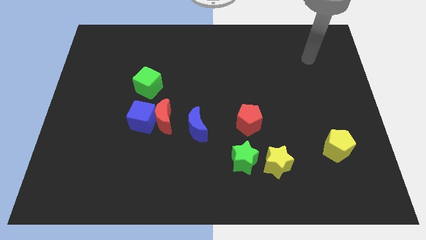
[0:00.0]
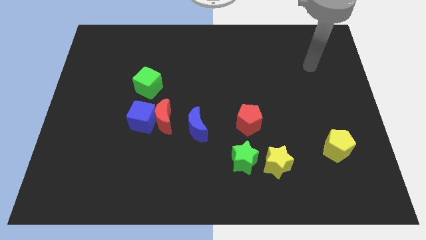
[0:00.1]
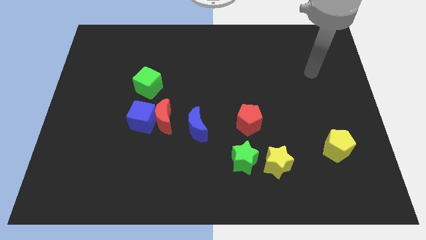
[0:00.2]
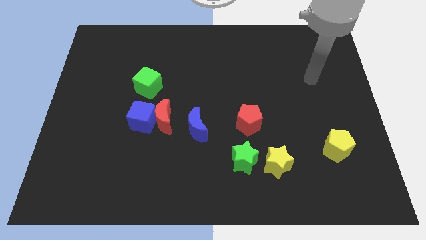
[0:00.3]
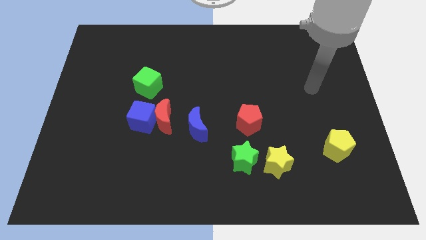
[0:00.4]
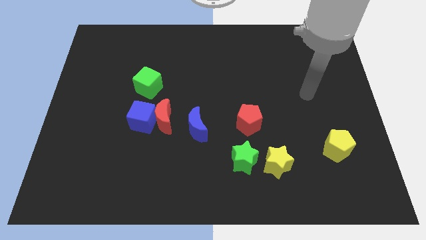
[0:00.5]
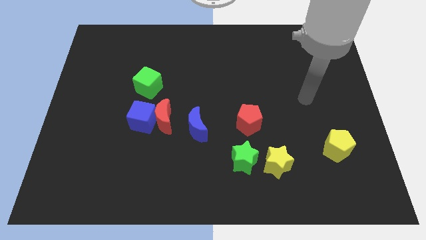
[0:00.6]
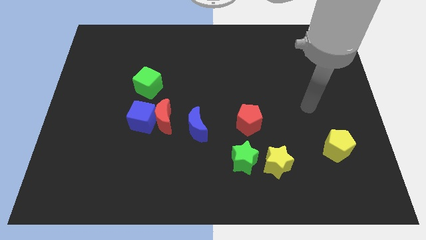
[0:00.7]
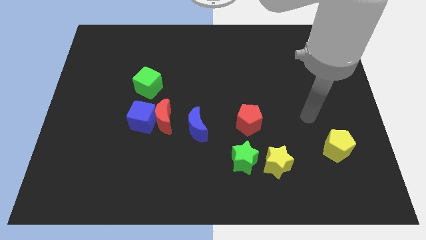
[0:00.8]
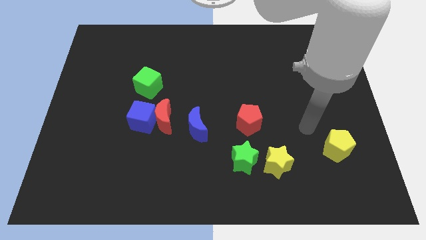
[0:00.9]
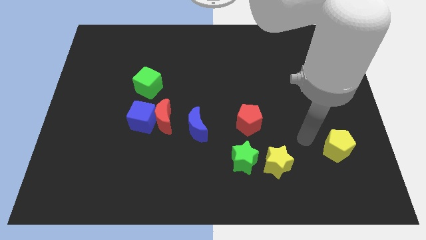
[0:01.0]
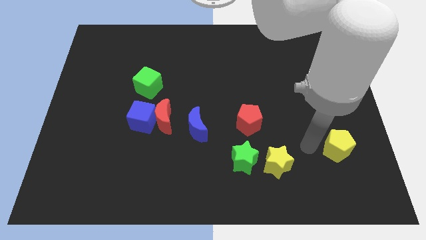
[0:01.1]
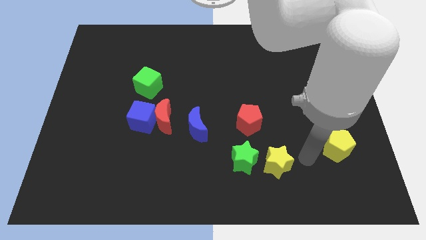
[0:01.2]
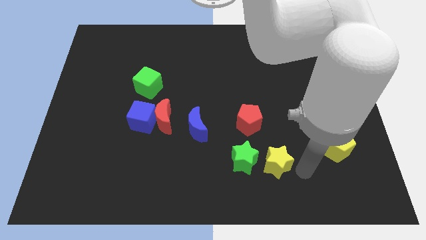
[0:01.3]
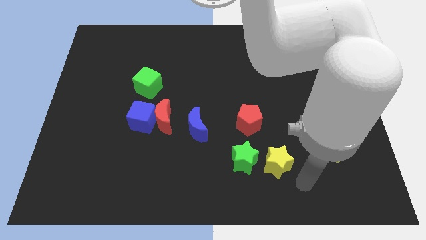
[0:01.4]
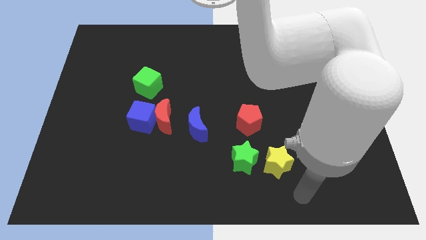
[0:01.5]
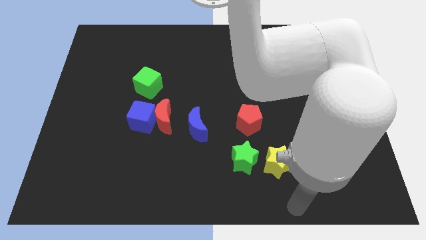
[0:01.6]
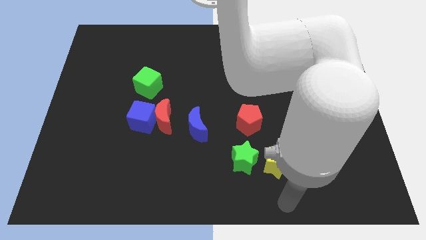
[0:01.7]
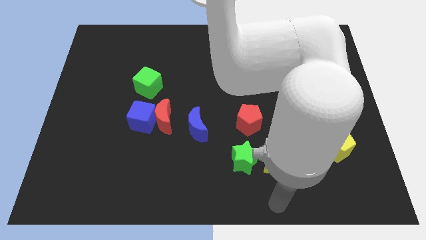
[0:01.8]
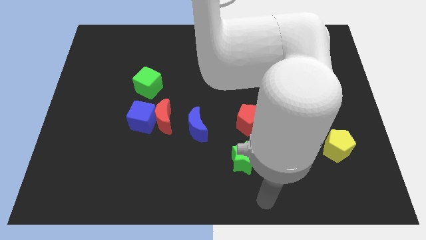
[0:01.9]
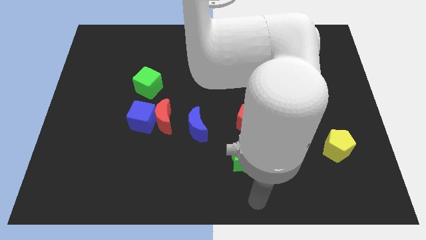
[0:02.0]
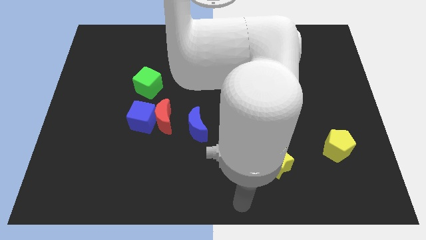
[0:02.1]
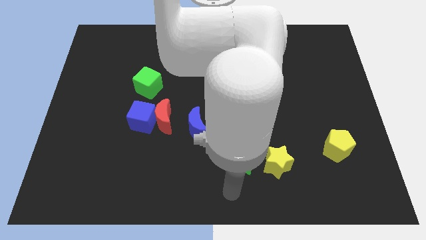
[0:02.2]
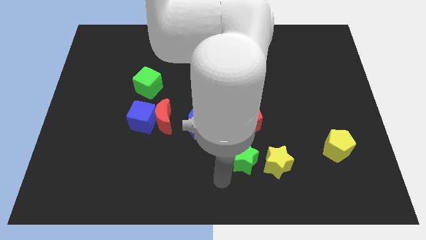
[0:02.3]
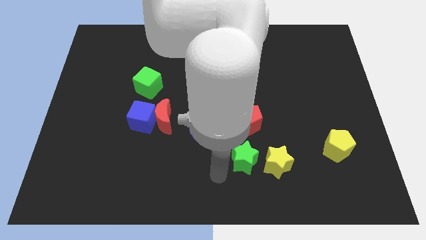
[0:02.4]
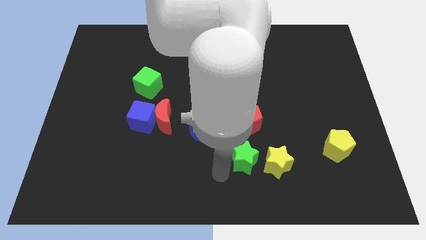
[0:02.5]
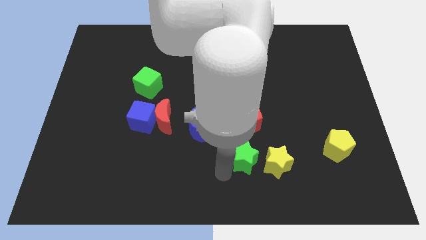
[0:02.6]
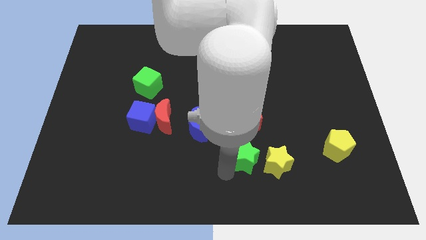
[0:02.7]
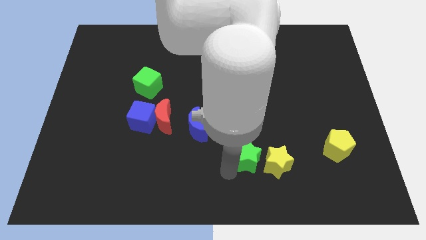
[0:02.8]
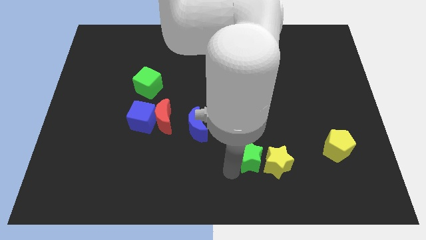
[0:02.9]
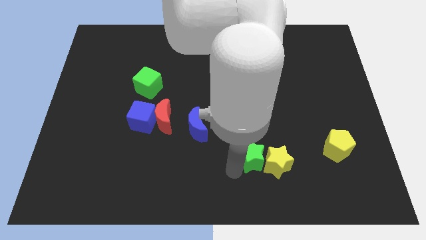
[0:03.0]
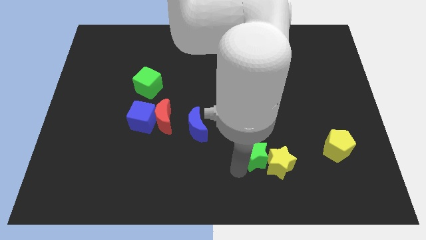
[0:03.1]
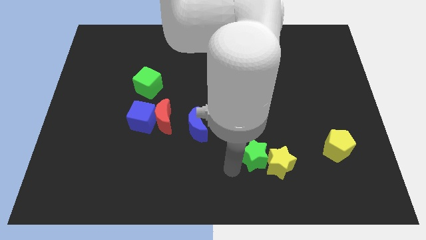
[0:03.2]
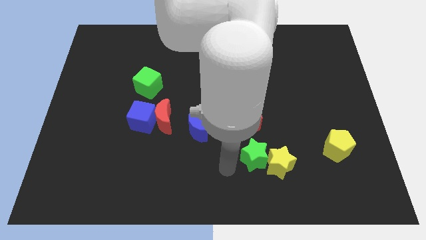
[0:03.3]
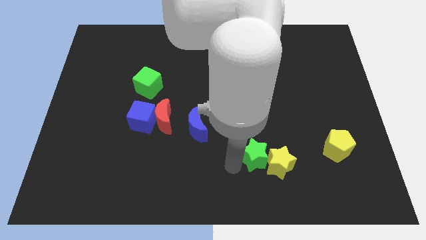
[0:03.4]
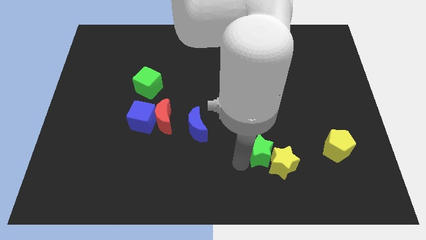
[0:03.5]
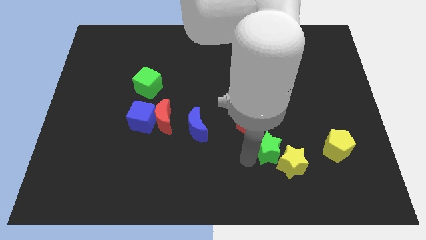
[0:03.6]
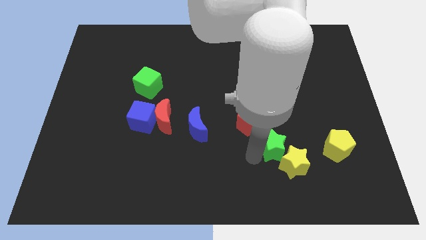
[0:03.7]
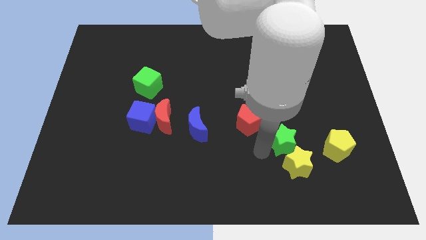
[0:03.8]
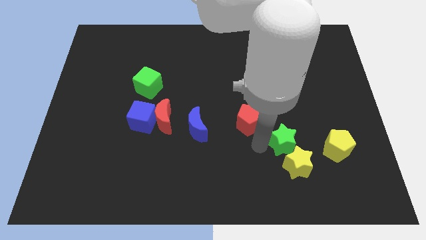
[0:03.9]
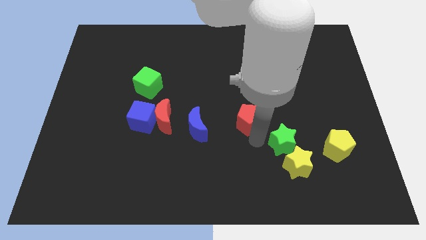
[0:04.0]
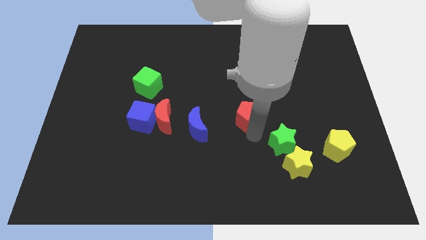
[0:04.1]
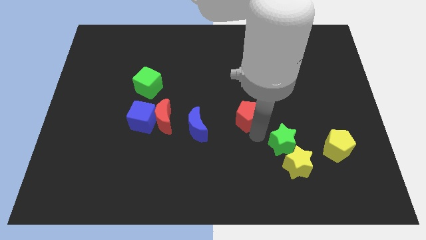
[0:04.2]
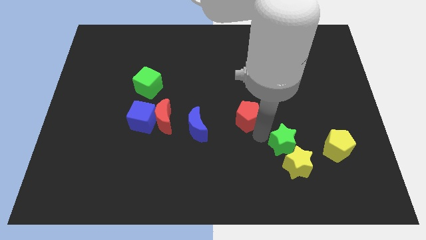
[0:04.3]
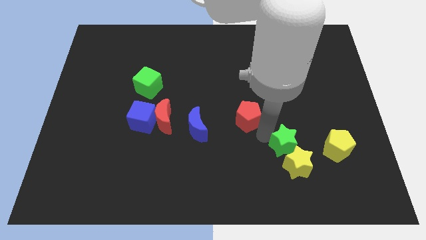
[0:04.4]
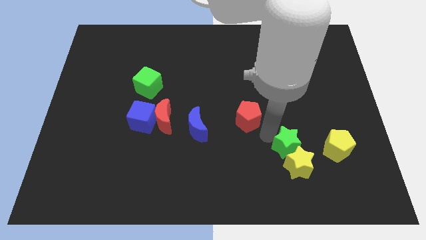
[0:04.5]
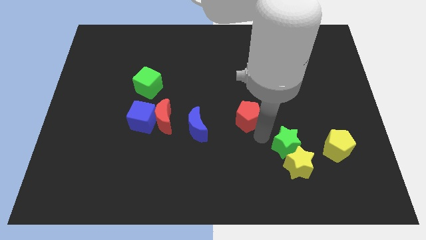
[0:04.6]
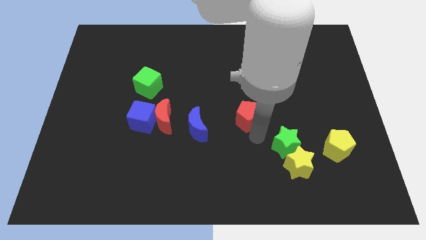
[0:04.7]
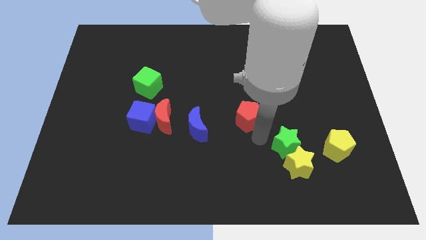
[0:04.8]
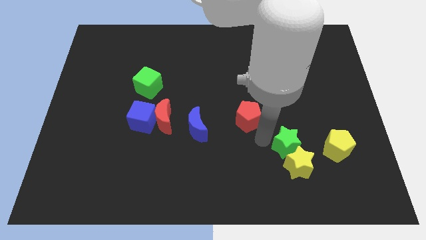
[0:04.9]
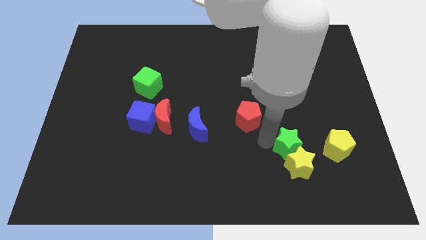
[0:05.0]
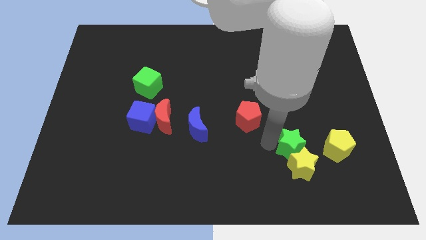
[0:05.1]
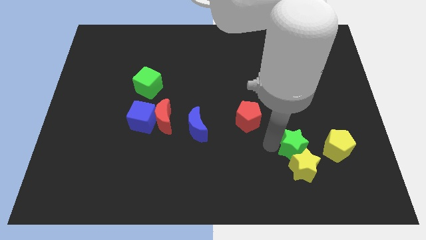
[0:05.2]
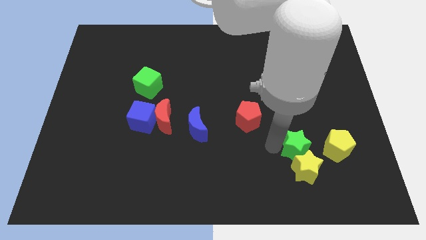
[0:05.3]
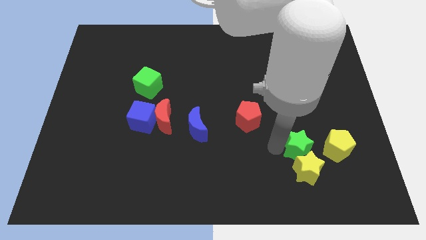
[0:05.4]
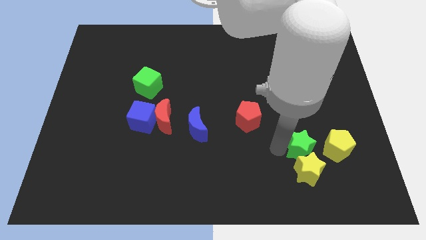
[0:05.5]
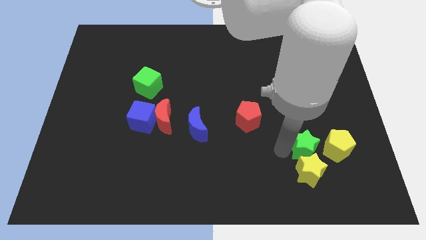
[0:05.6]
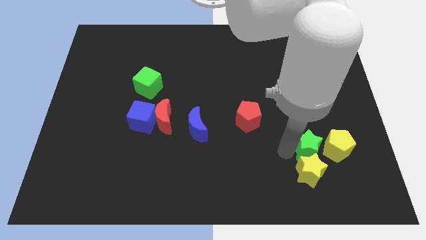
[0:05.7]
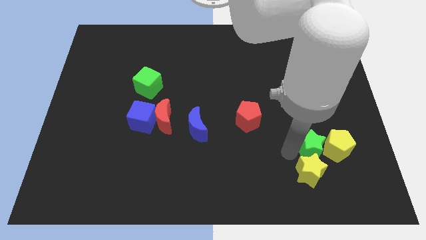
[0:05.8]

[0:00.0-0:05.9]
push the green star towards the yellow pentagon

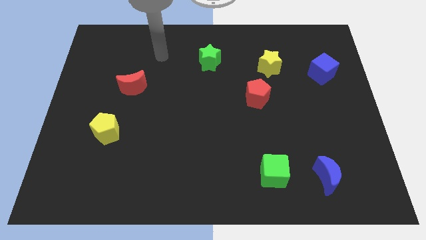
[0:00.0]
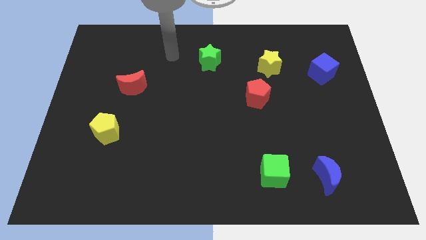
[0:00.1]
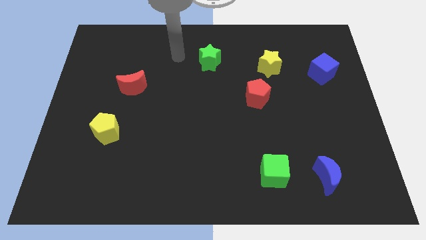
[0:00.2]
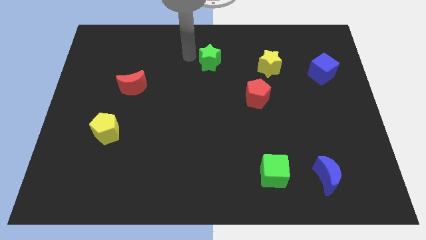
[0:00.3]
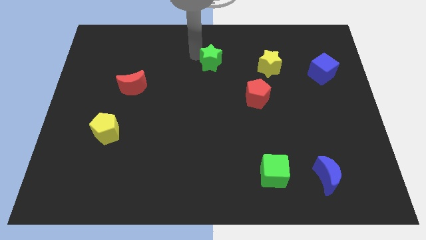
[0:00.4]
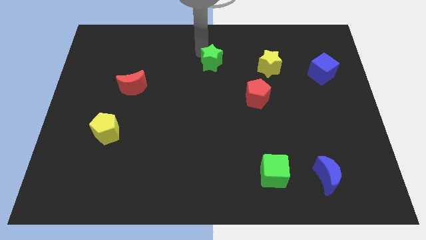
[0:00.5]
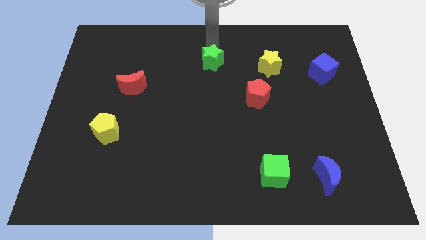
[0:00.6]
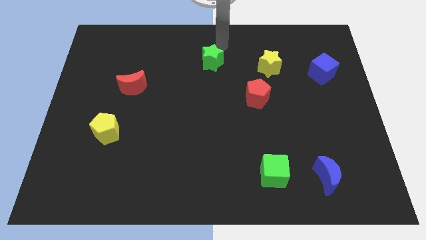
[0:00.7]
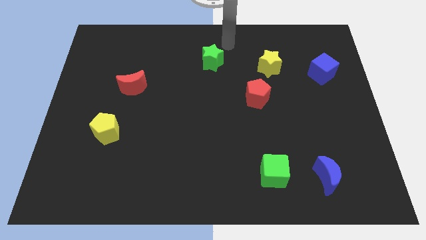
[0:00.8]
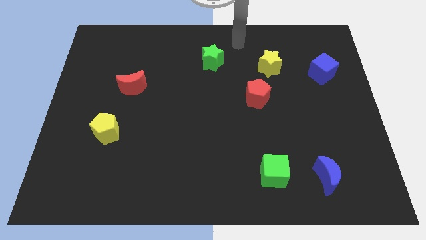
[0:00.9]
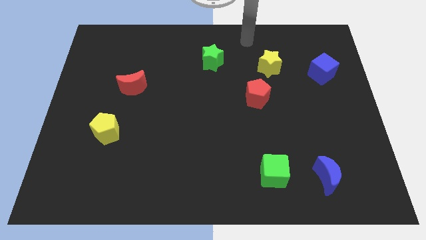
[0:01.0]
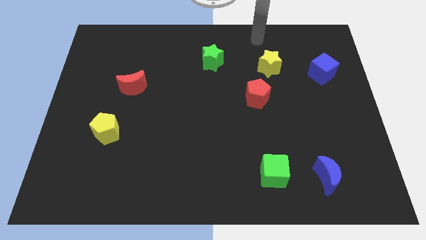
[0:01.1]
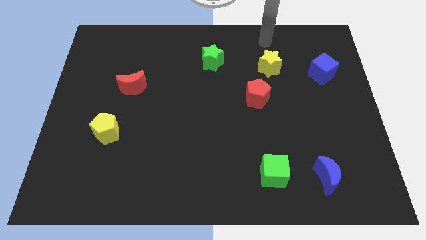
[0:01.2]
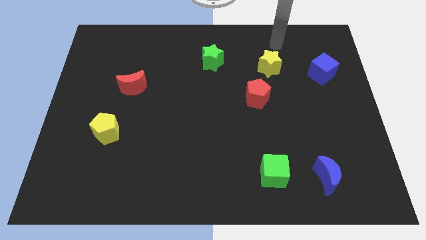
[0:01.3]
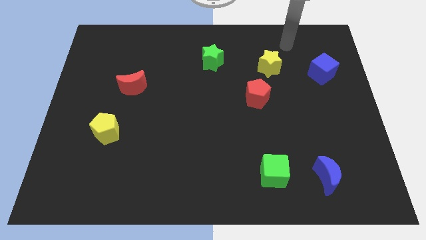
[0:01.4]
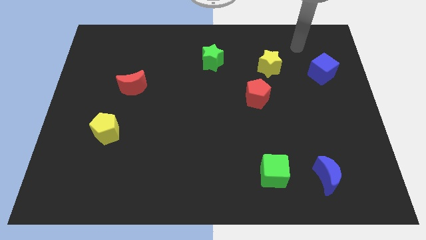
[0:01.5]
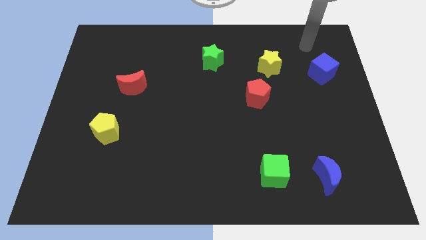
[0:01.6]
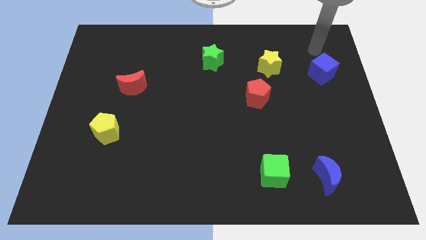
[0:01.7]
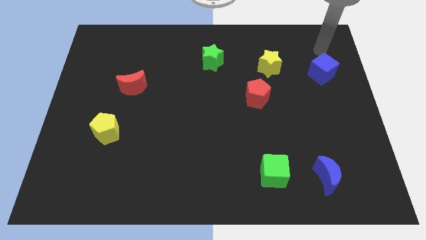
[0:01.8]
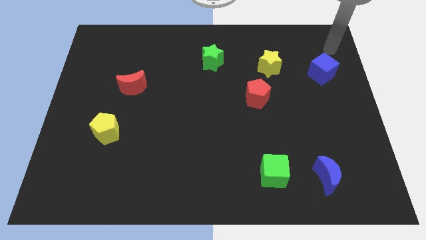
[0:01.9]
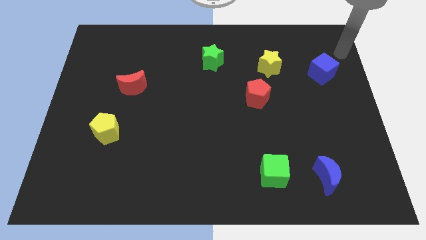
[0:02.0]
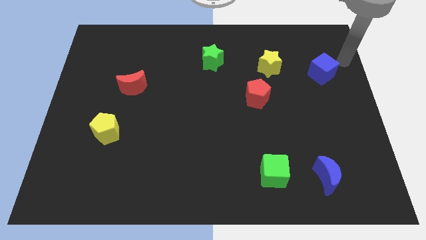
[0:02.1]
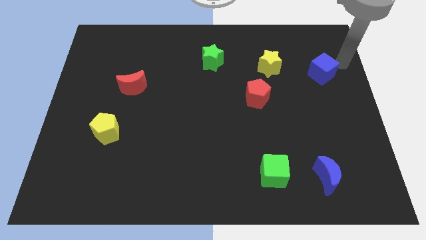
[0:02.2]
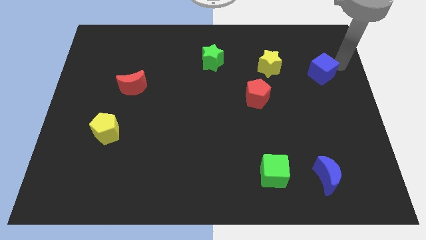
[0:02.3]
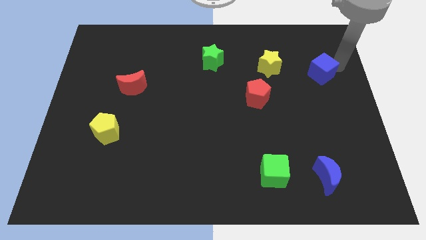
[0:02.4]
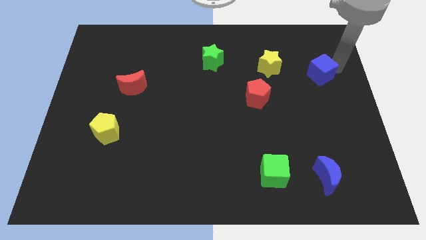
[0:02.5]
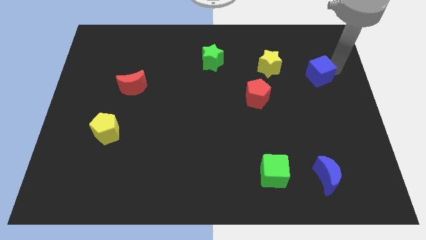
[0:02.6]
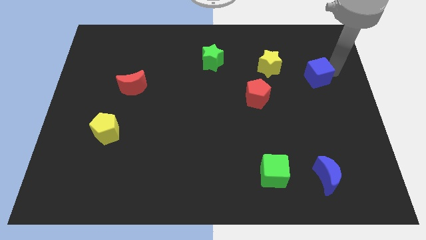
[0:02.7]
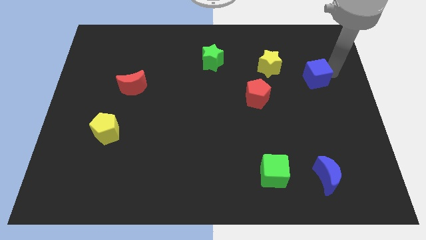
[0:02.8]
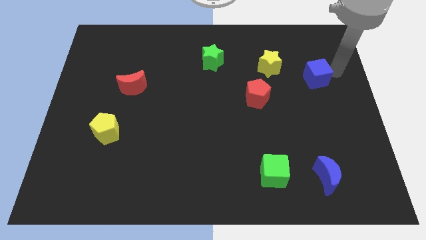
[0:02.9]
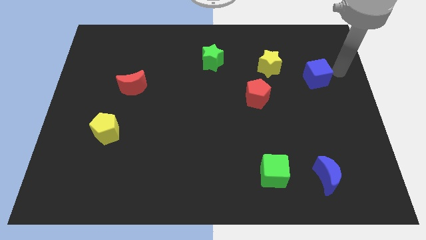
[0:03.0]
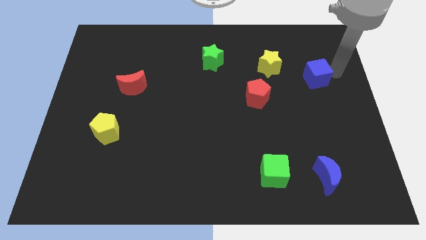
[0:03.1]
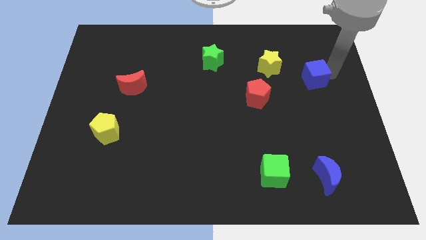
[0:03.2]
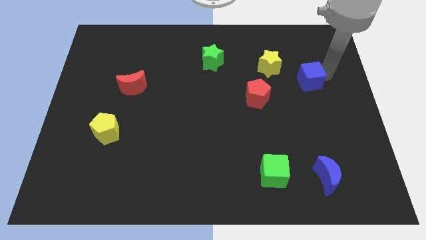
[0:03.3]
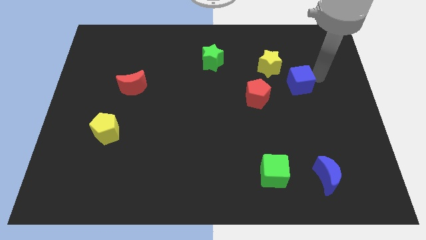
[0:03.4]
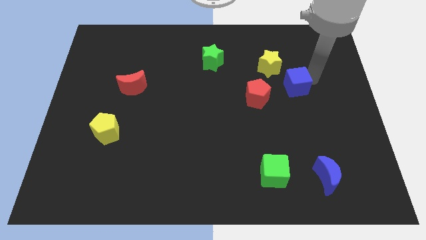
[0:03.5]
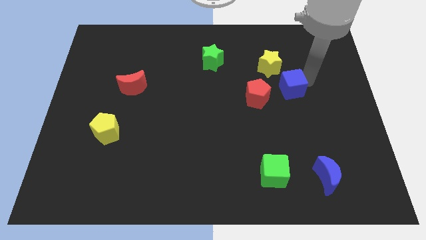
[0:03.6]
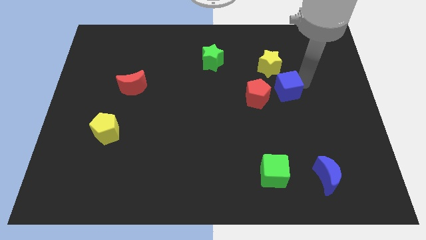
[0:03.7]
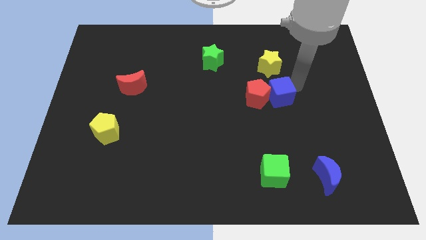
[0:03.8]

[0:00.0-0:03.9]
push the blue cube to the red pentagon
